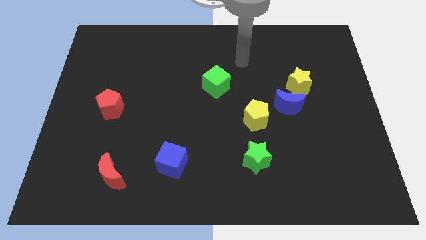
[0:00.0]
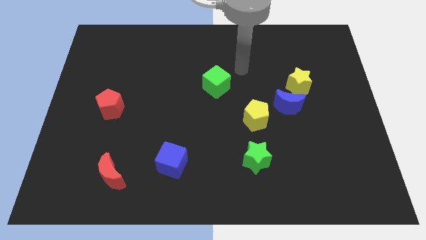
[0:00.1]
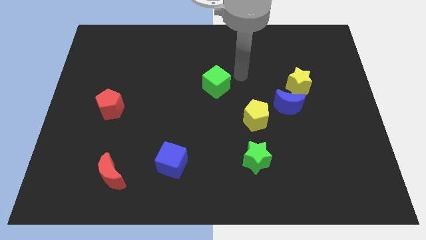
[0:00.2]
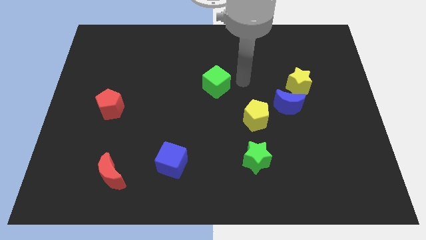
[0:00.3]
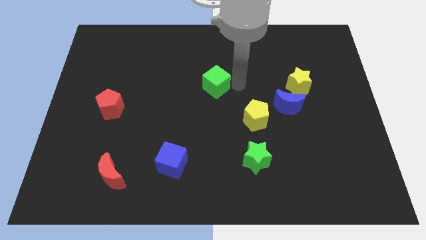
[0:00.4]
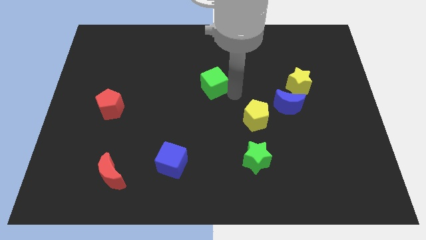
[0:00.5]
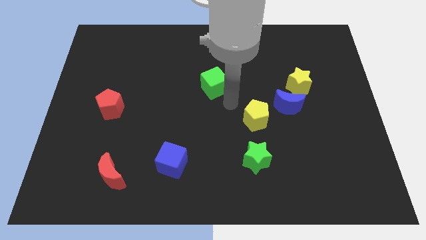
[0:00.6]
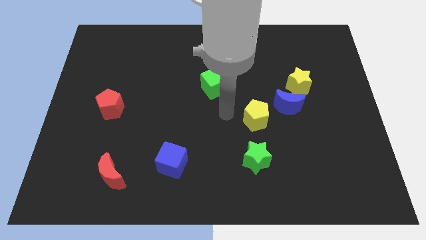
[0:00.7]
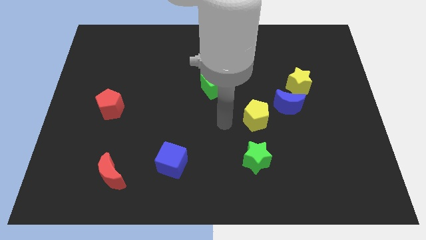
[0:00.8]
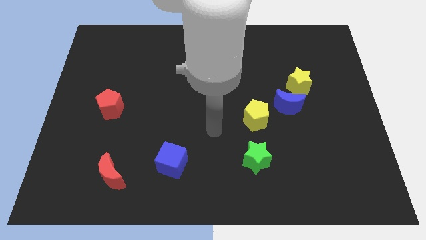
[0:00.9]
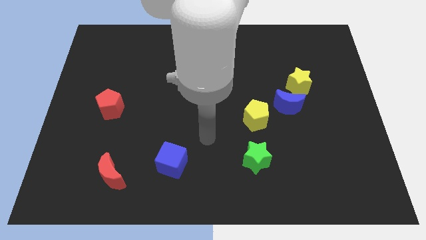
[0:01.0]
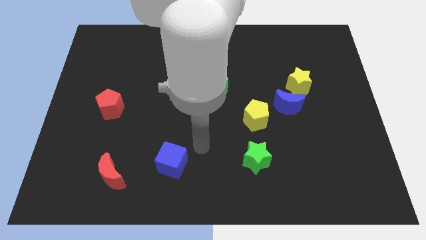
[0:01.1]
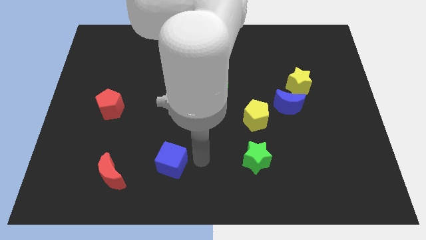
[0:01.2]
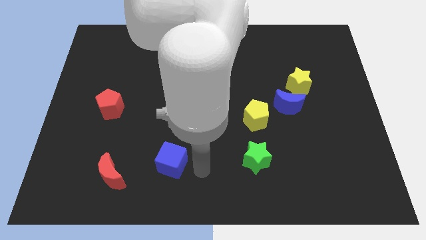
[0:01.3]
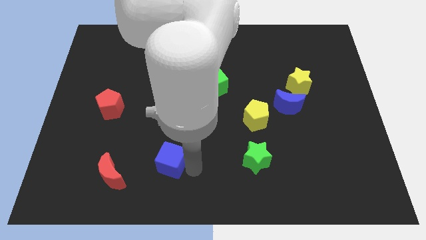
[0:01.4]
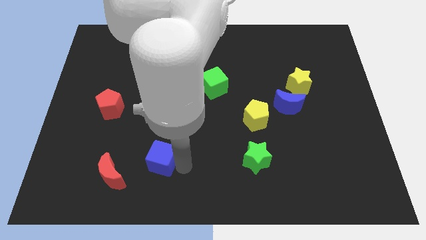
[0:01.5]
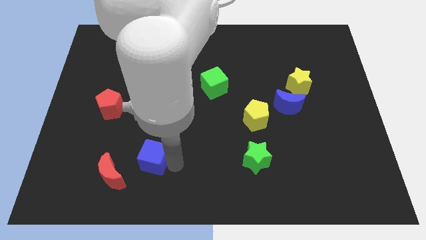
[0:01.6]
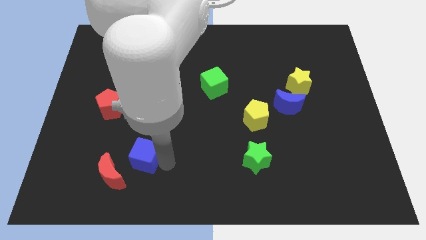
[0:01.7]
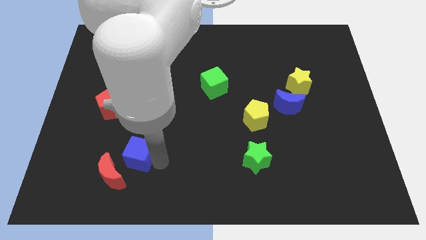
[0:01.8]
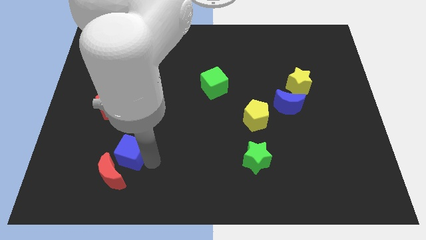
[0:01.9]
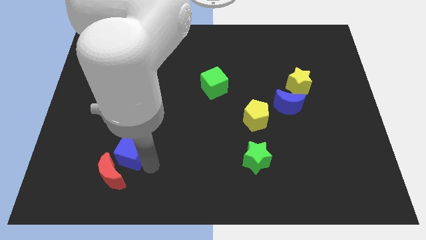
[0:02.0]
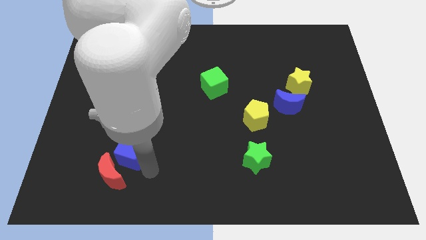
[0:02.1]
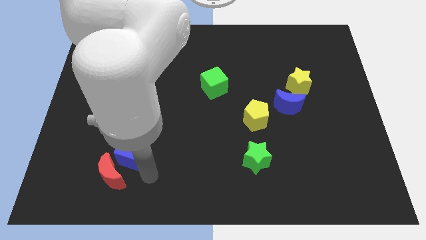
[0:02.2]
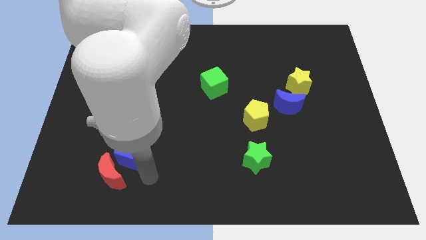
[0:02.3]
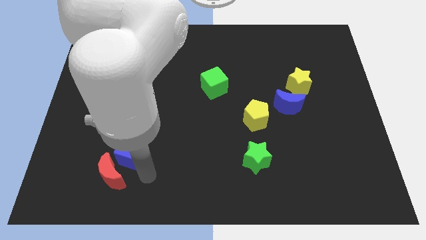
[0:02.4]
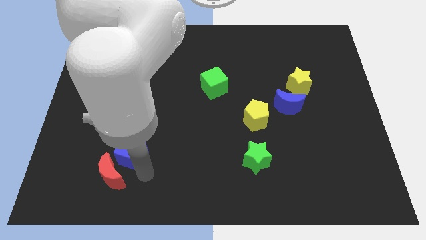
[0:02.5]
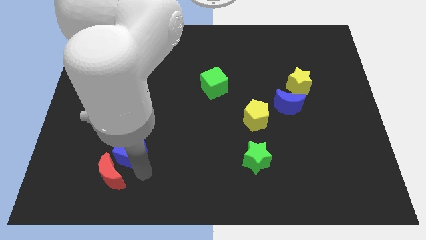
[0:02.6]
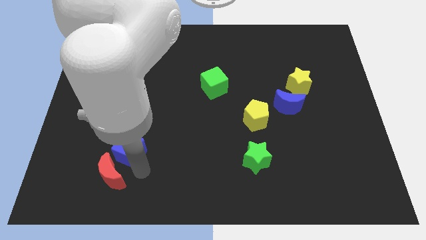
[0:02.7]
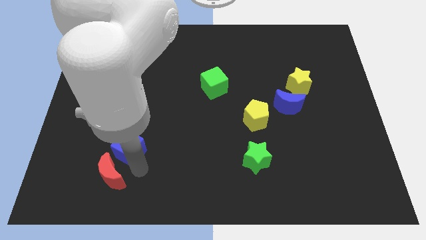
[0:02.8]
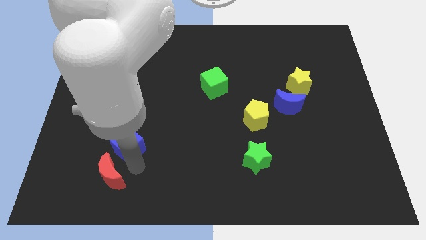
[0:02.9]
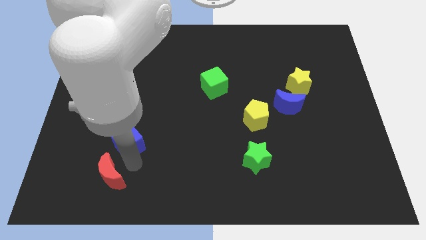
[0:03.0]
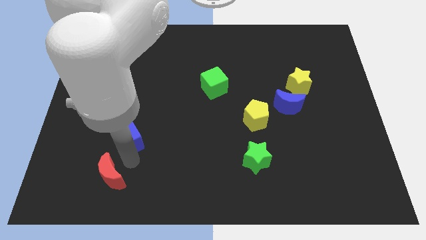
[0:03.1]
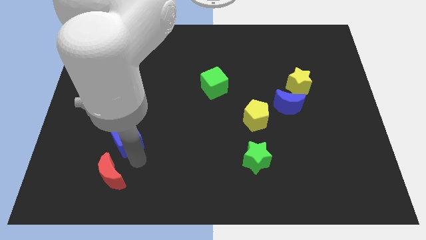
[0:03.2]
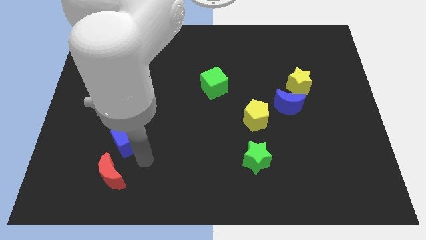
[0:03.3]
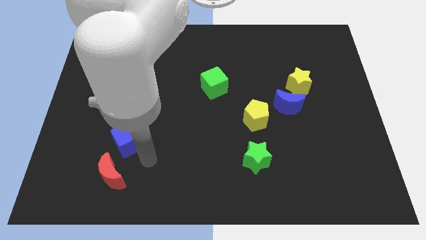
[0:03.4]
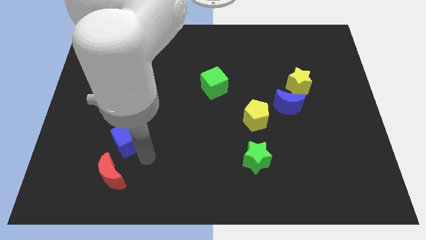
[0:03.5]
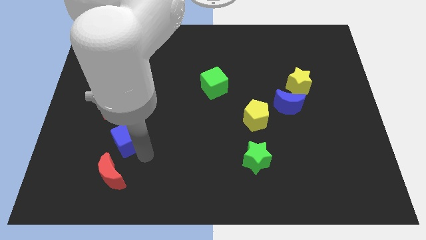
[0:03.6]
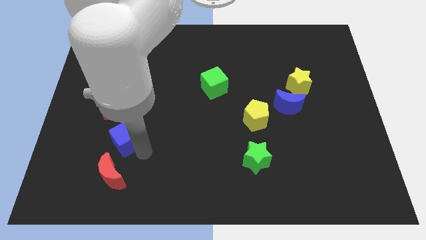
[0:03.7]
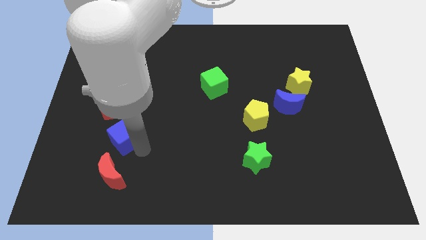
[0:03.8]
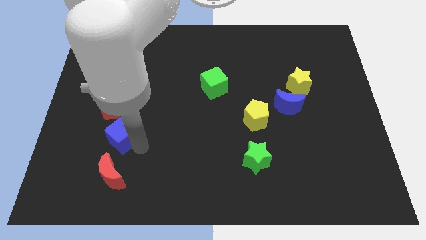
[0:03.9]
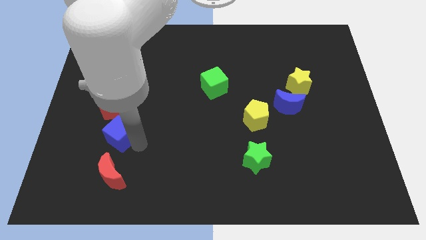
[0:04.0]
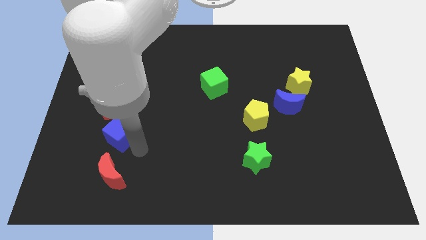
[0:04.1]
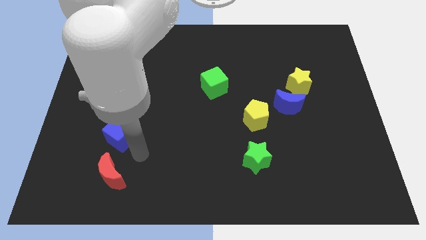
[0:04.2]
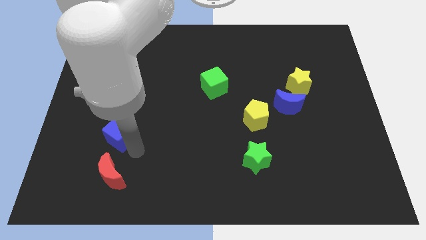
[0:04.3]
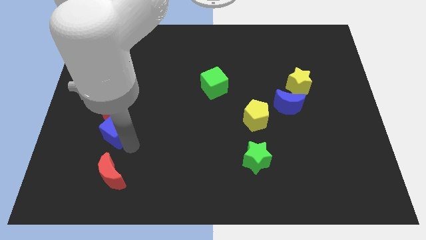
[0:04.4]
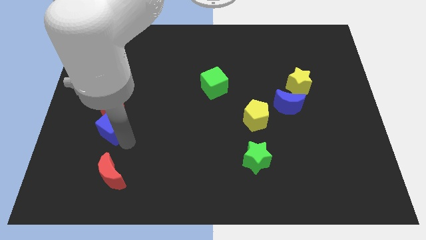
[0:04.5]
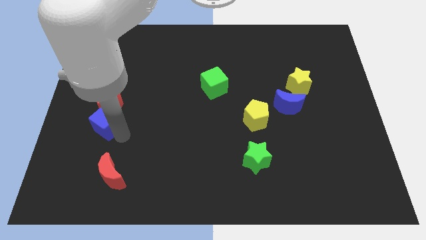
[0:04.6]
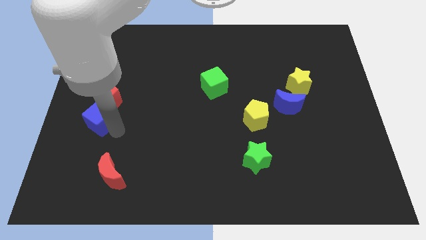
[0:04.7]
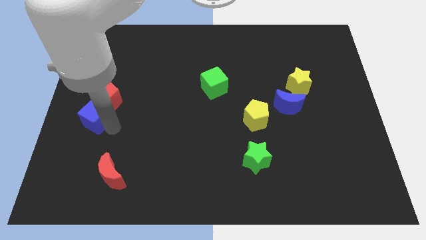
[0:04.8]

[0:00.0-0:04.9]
move the blue cube to the left side

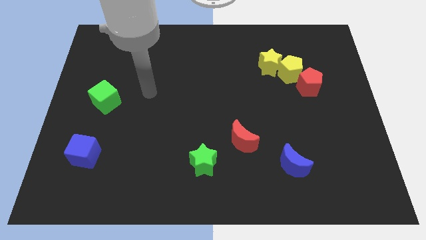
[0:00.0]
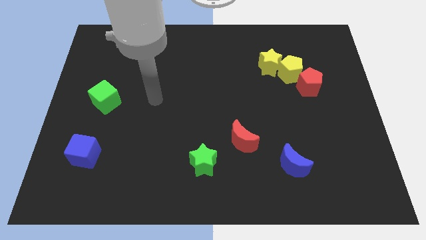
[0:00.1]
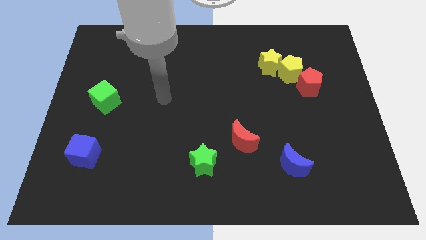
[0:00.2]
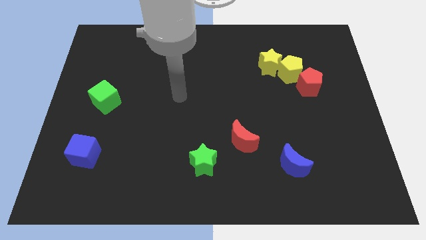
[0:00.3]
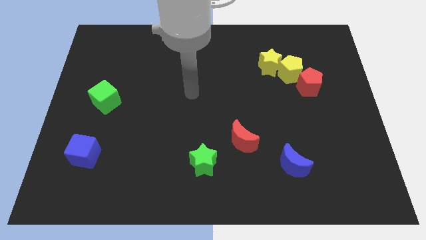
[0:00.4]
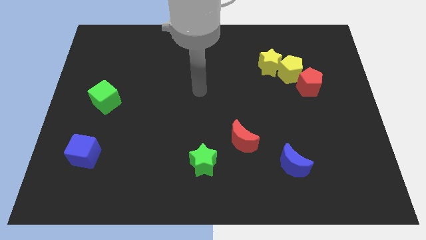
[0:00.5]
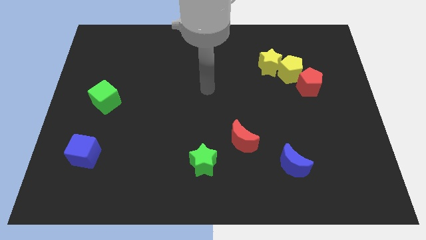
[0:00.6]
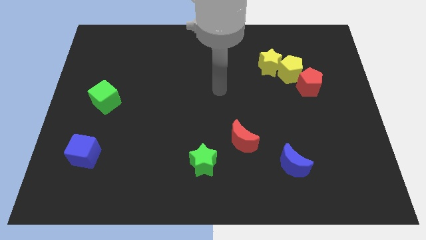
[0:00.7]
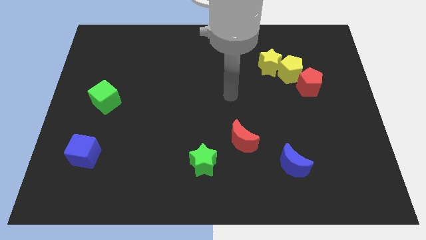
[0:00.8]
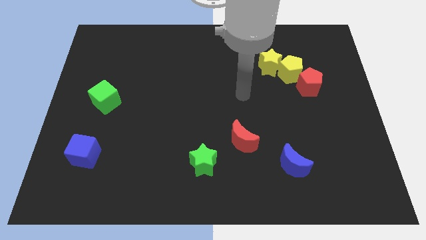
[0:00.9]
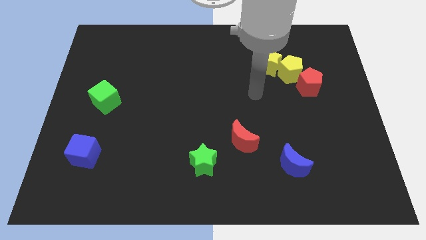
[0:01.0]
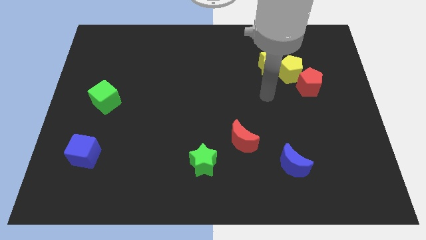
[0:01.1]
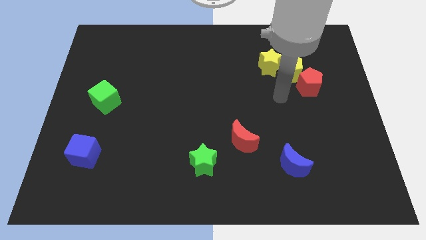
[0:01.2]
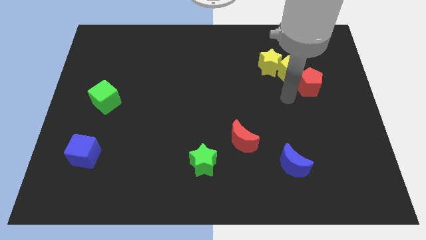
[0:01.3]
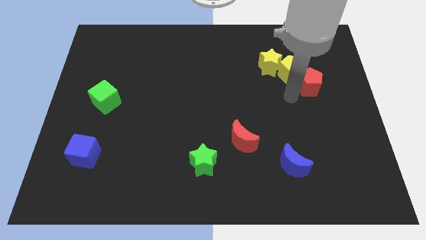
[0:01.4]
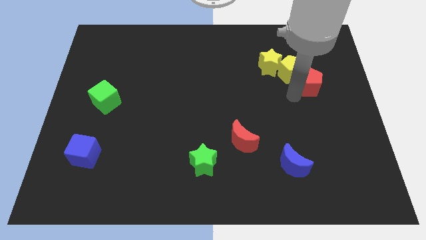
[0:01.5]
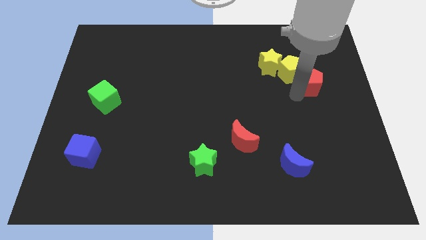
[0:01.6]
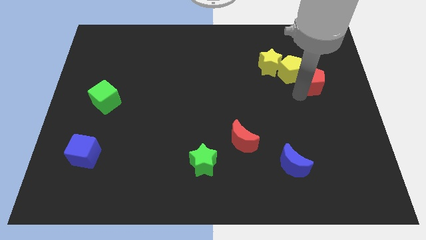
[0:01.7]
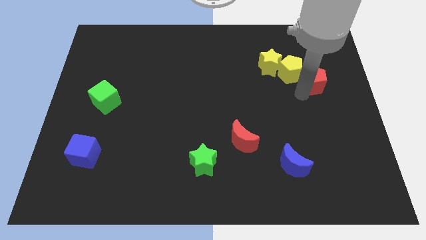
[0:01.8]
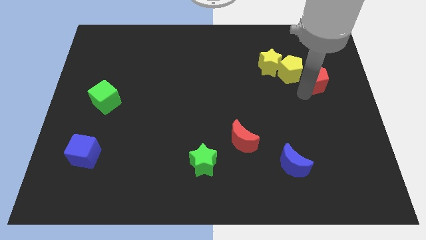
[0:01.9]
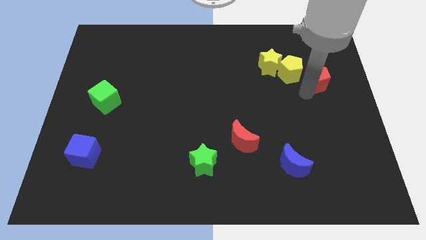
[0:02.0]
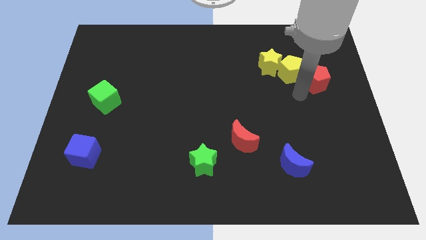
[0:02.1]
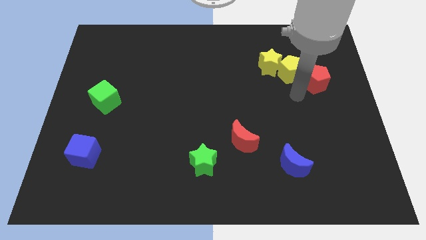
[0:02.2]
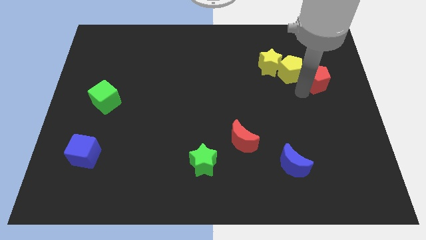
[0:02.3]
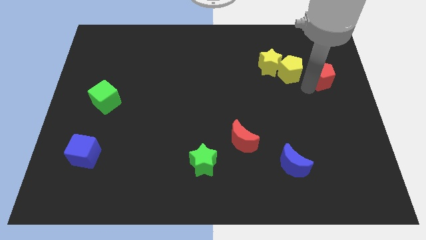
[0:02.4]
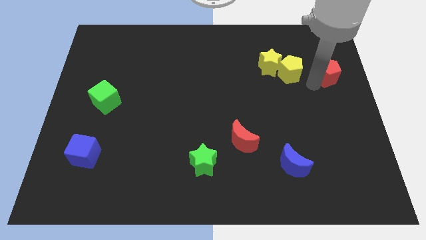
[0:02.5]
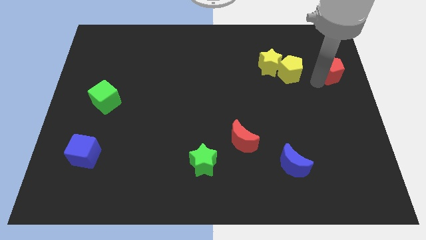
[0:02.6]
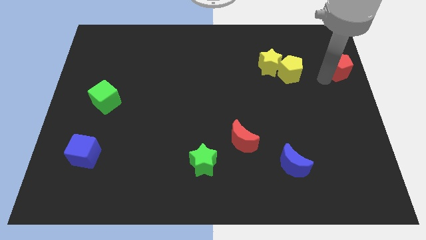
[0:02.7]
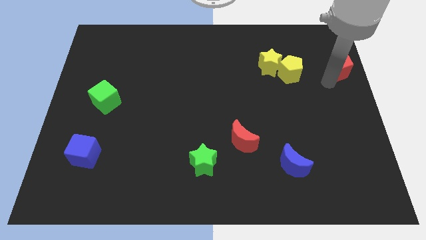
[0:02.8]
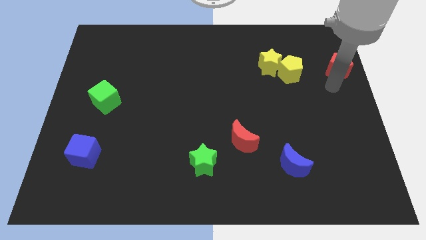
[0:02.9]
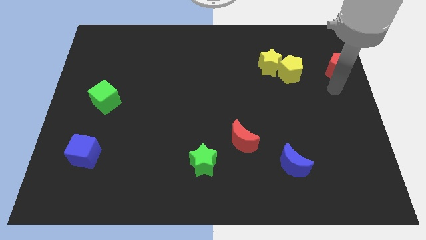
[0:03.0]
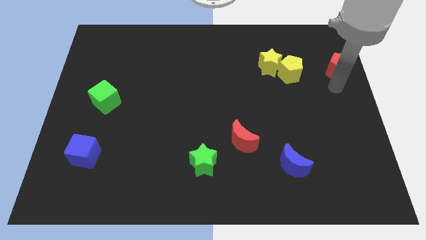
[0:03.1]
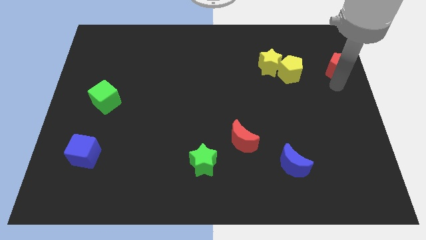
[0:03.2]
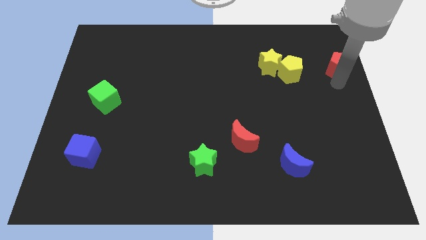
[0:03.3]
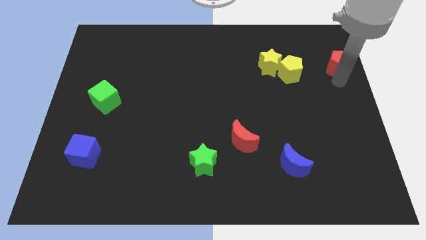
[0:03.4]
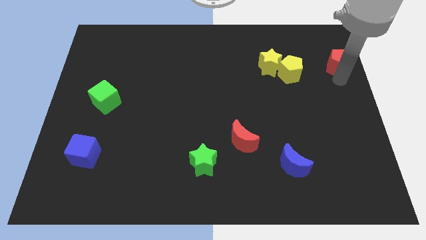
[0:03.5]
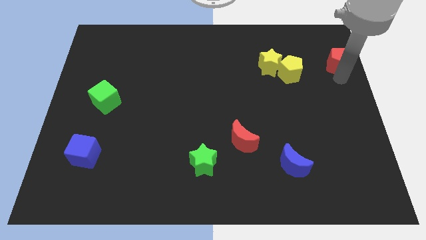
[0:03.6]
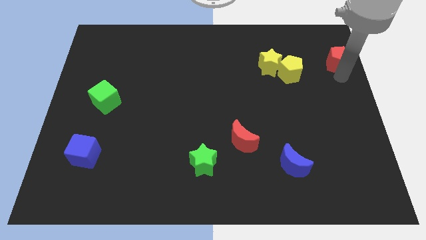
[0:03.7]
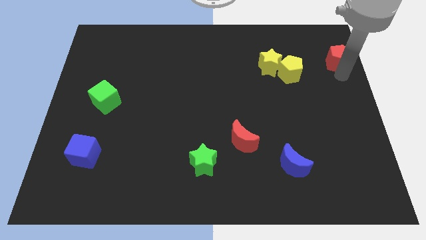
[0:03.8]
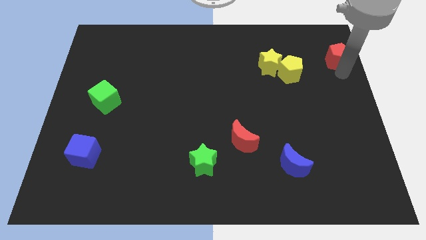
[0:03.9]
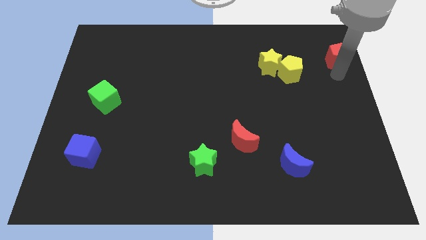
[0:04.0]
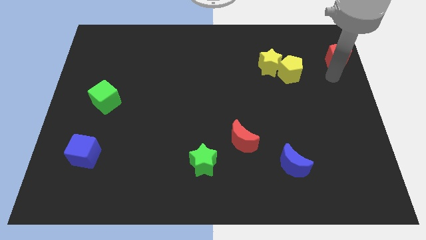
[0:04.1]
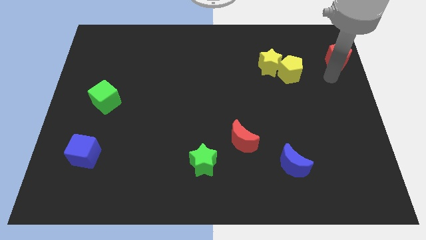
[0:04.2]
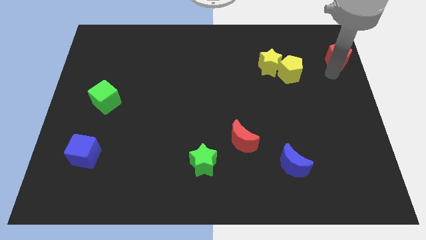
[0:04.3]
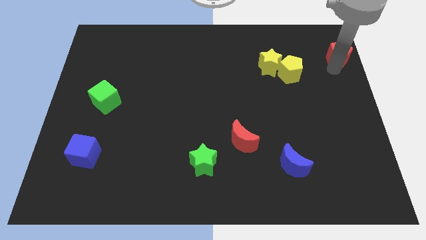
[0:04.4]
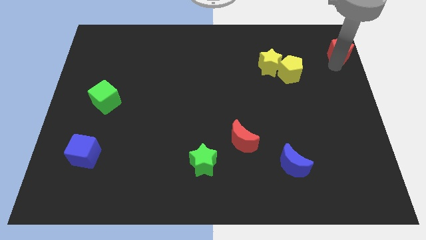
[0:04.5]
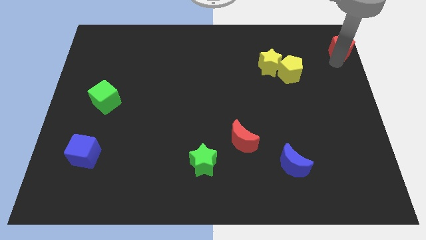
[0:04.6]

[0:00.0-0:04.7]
push the red pentagon to the top right
